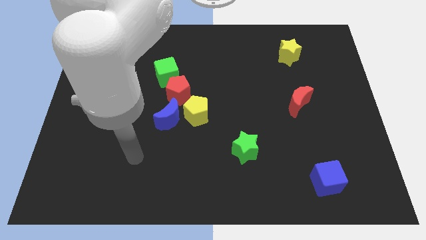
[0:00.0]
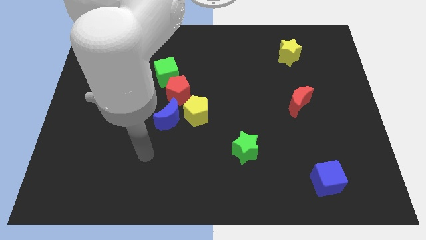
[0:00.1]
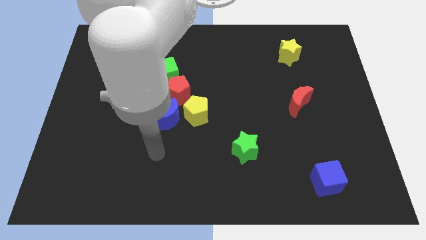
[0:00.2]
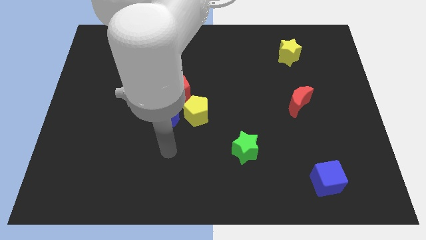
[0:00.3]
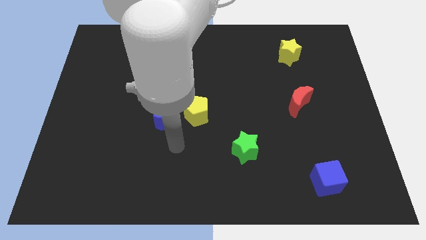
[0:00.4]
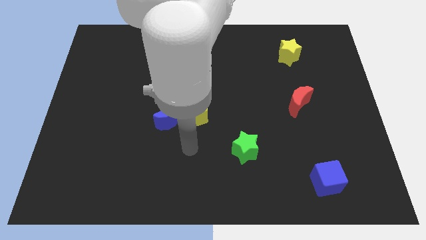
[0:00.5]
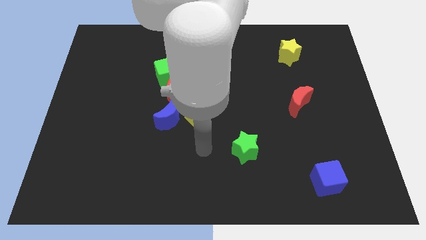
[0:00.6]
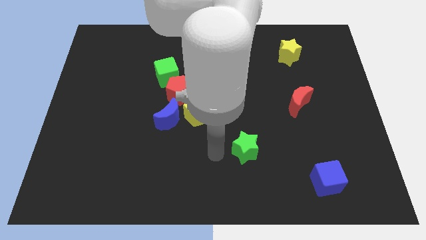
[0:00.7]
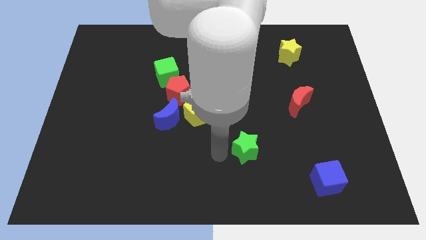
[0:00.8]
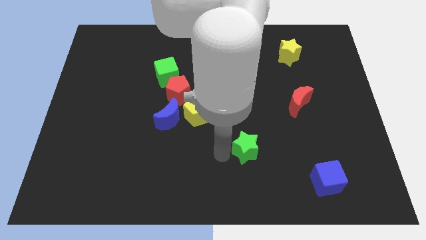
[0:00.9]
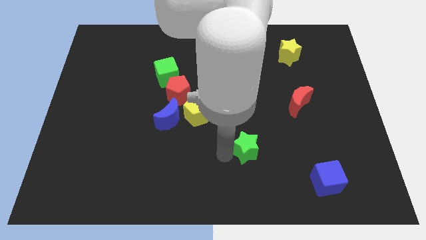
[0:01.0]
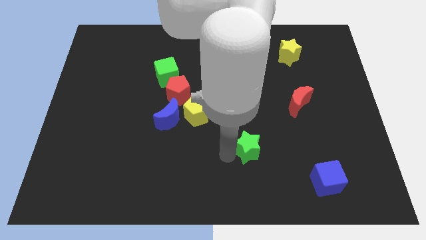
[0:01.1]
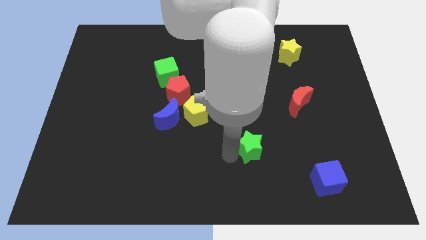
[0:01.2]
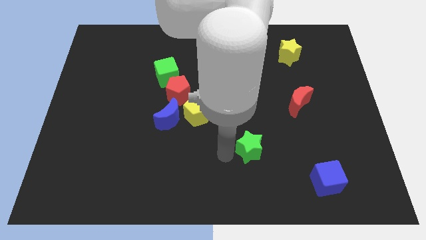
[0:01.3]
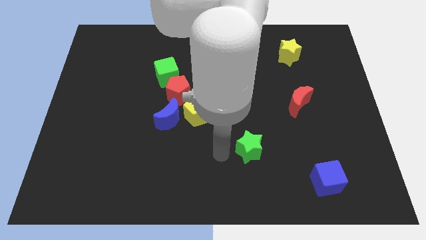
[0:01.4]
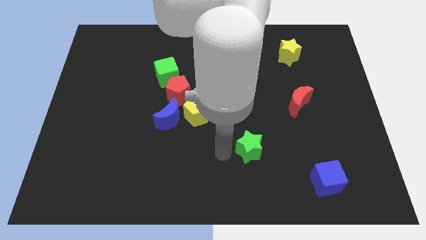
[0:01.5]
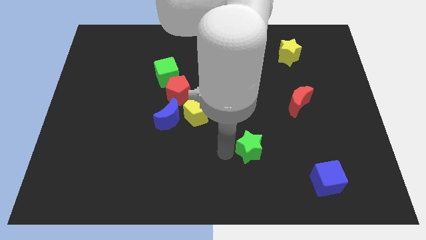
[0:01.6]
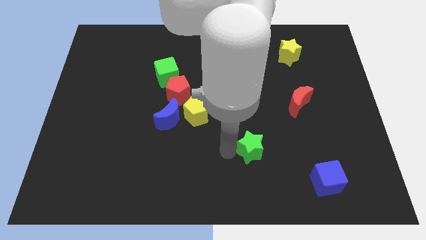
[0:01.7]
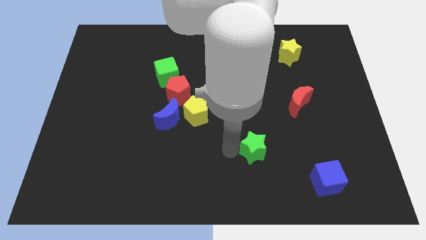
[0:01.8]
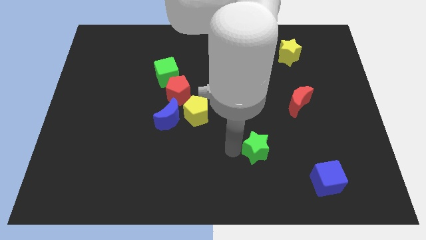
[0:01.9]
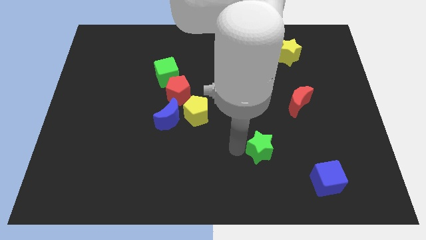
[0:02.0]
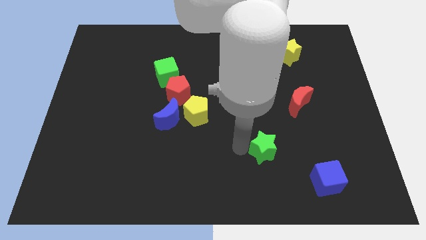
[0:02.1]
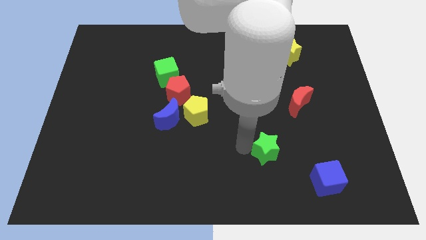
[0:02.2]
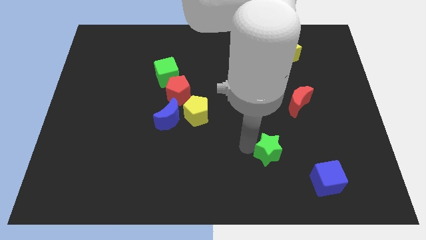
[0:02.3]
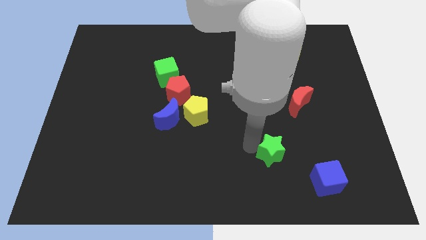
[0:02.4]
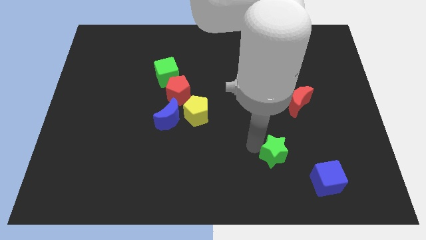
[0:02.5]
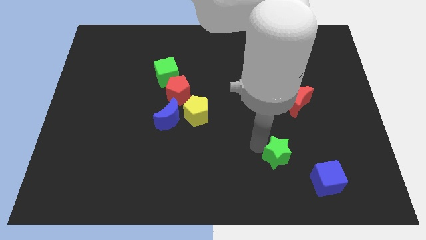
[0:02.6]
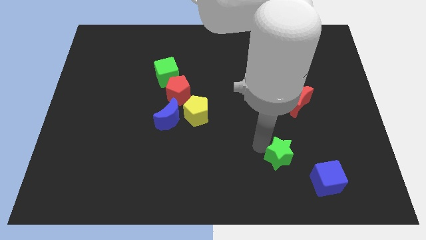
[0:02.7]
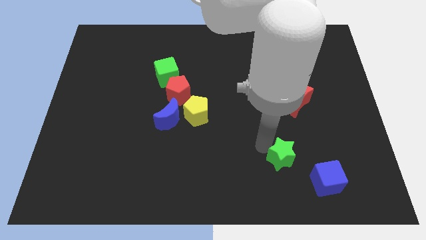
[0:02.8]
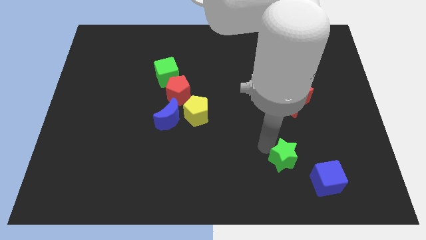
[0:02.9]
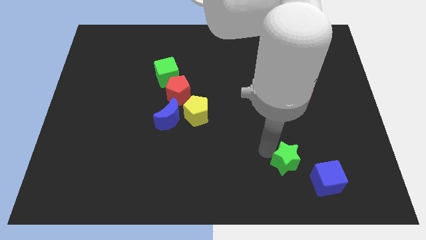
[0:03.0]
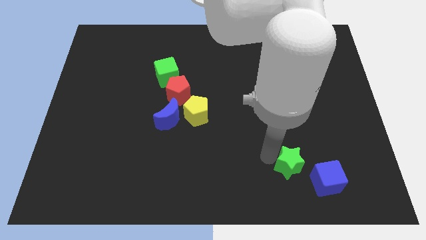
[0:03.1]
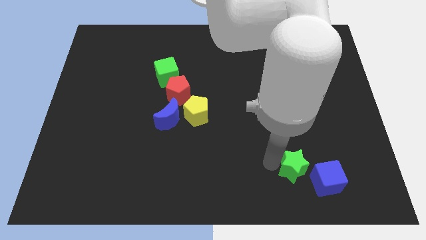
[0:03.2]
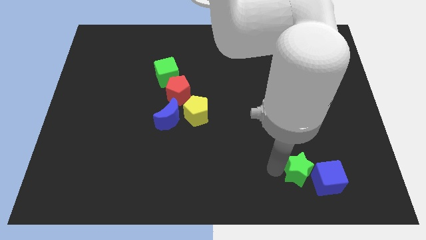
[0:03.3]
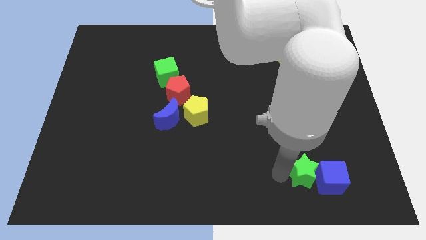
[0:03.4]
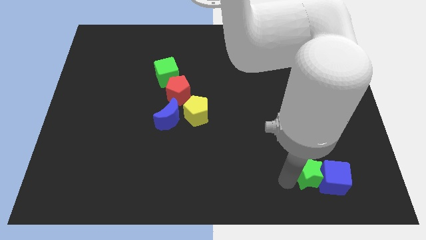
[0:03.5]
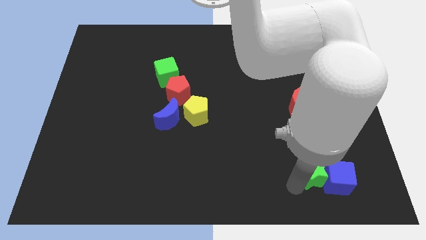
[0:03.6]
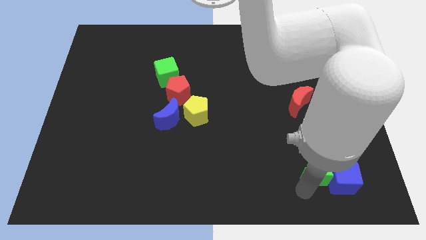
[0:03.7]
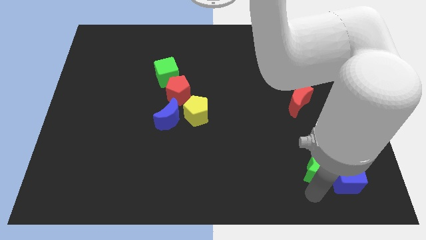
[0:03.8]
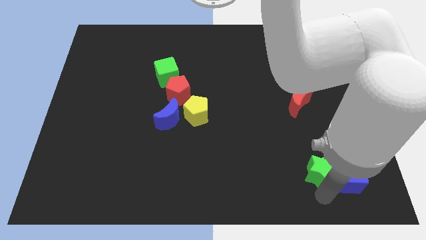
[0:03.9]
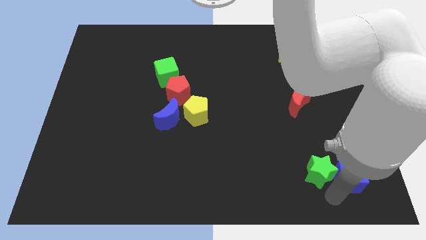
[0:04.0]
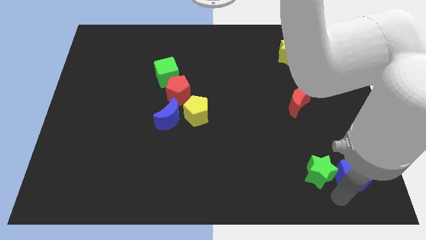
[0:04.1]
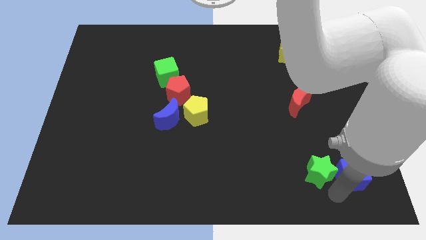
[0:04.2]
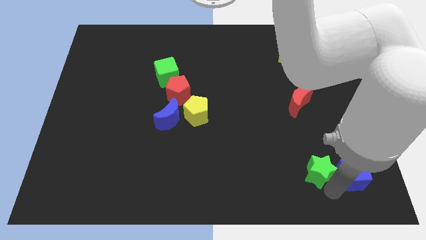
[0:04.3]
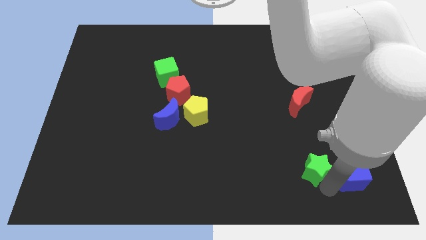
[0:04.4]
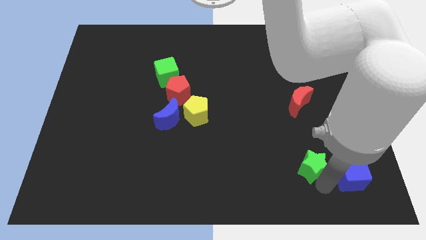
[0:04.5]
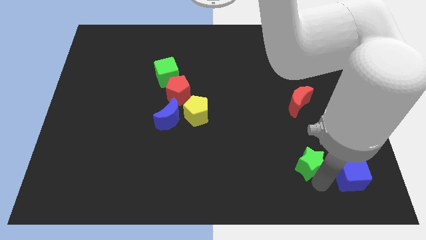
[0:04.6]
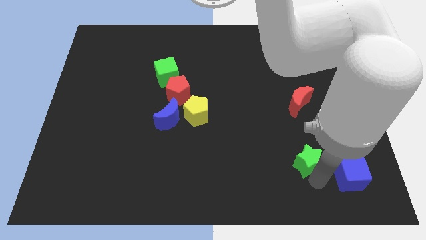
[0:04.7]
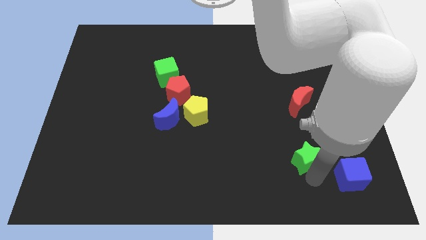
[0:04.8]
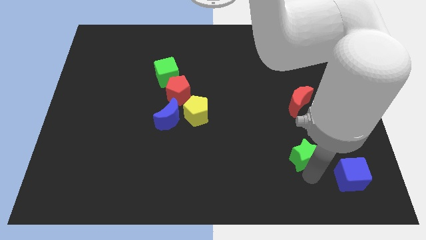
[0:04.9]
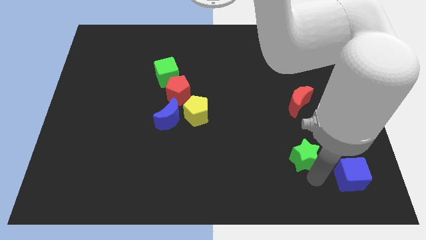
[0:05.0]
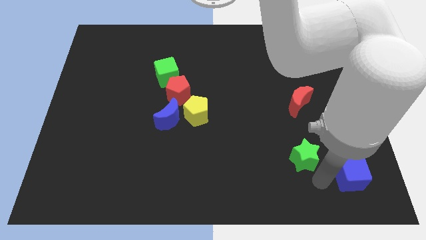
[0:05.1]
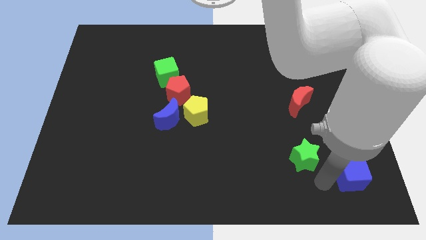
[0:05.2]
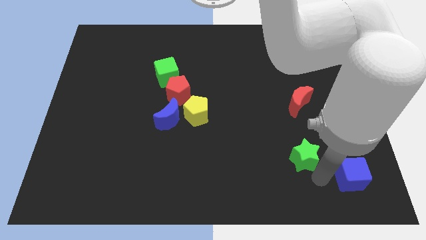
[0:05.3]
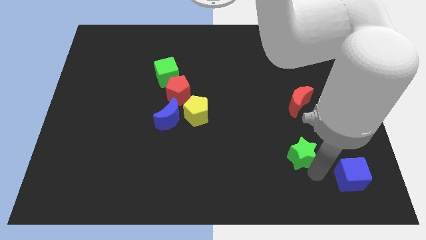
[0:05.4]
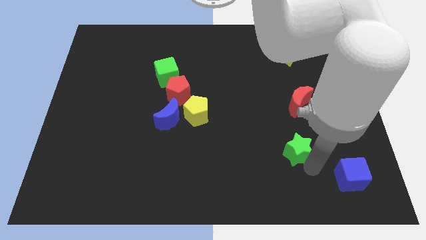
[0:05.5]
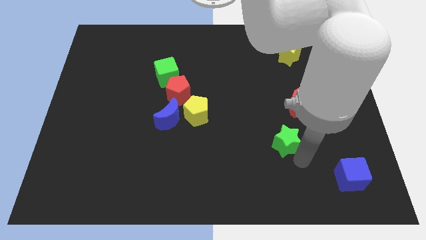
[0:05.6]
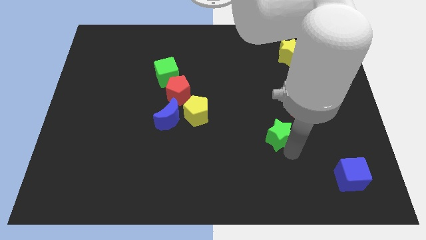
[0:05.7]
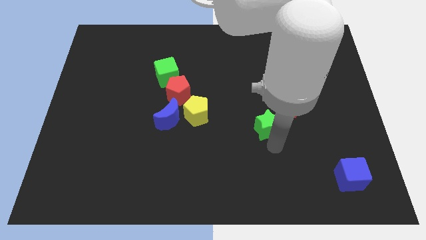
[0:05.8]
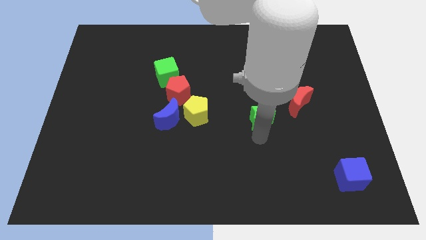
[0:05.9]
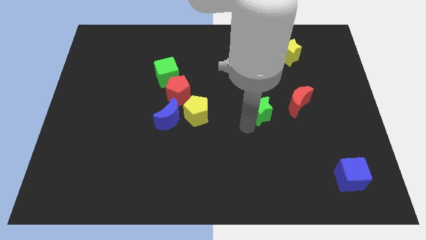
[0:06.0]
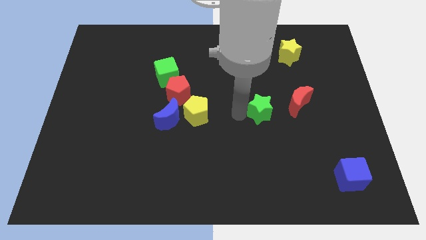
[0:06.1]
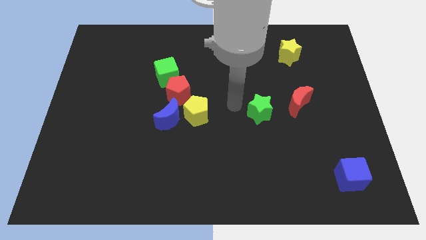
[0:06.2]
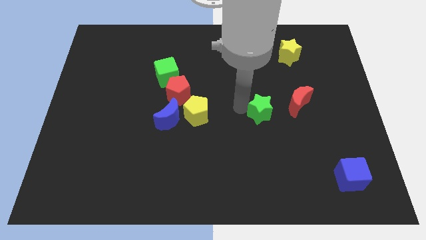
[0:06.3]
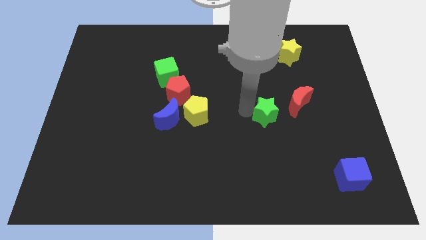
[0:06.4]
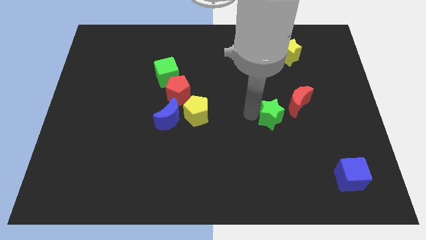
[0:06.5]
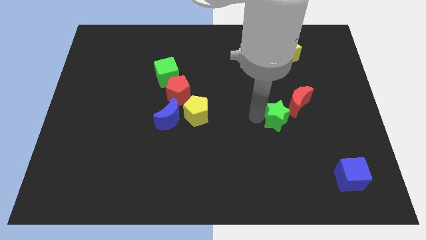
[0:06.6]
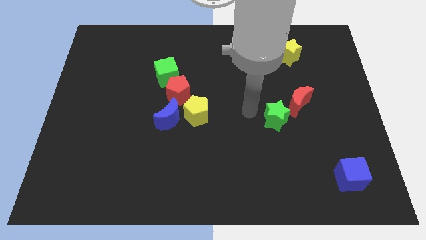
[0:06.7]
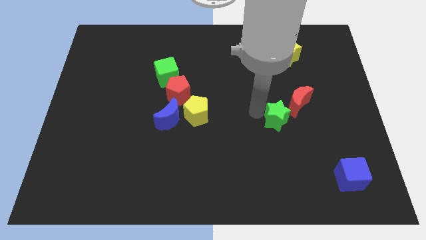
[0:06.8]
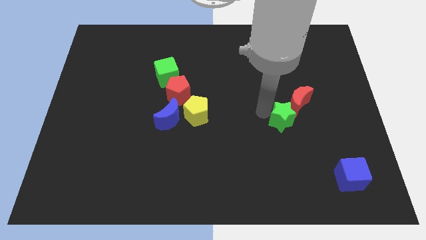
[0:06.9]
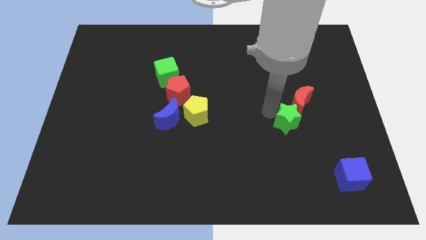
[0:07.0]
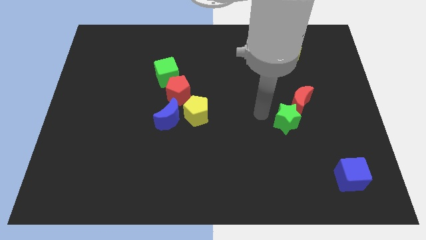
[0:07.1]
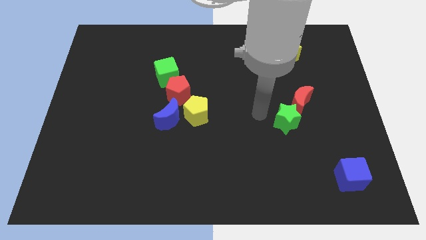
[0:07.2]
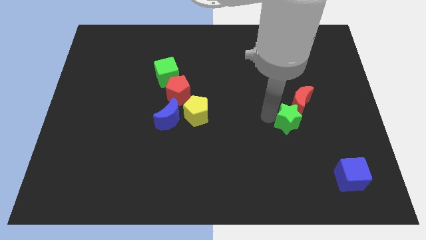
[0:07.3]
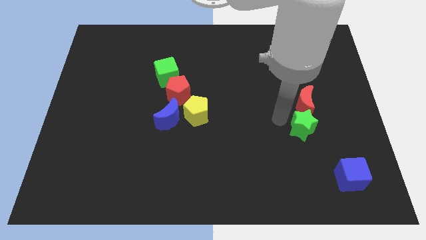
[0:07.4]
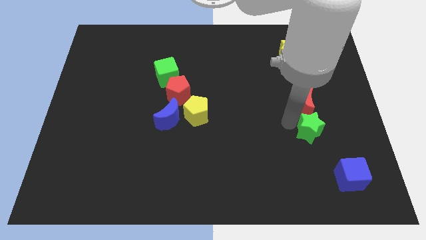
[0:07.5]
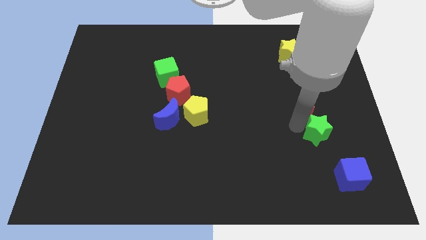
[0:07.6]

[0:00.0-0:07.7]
push the green star above the blue cube
